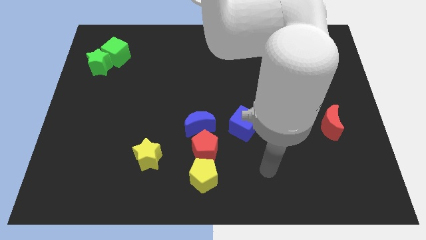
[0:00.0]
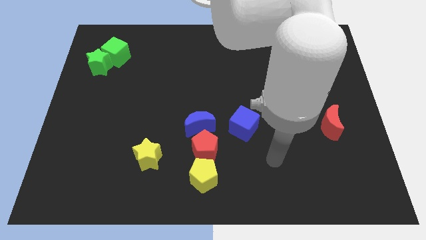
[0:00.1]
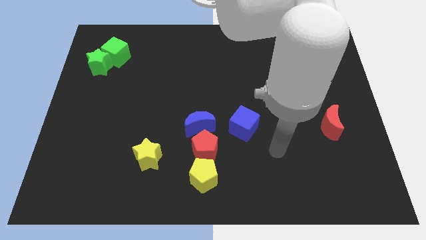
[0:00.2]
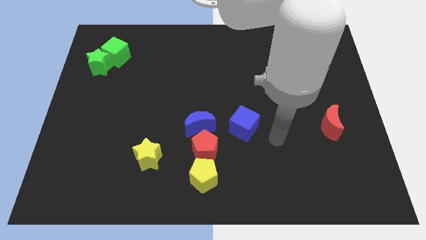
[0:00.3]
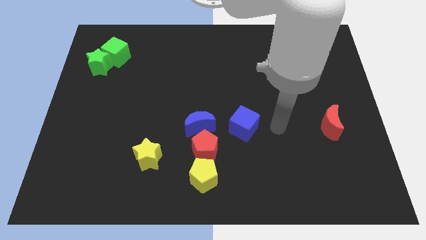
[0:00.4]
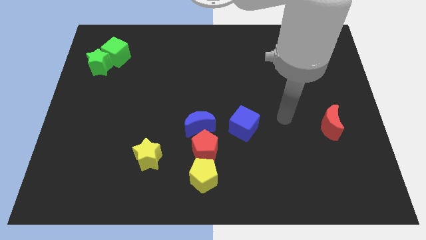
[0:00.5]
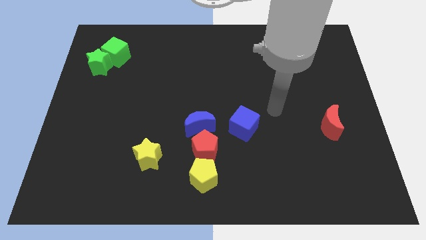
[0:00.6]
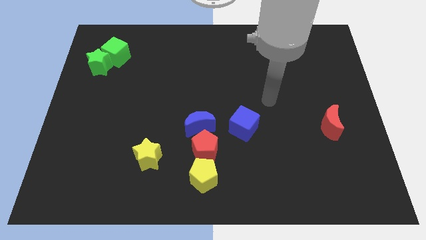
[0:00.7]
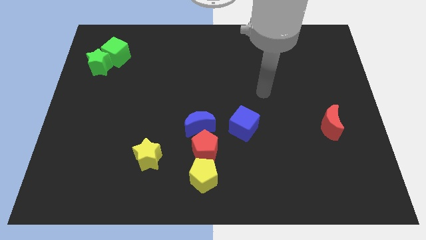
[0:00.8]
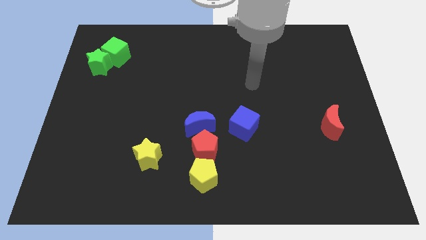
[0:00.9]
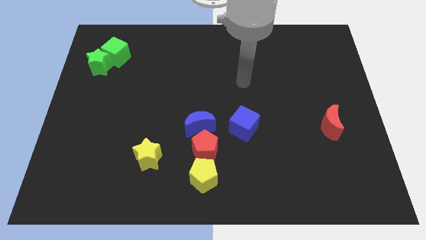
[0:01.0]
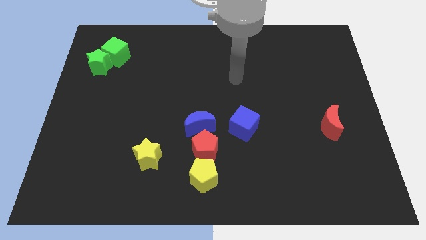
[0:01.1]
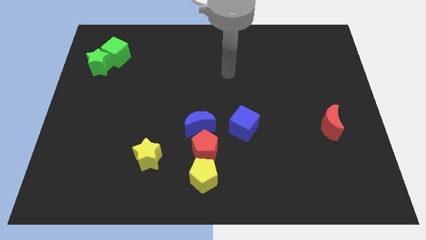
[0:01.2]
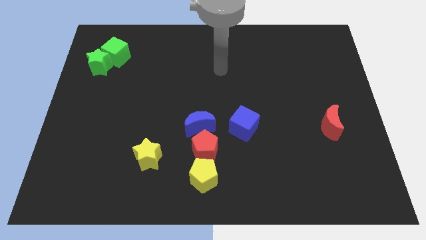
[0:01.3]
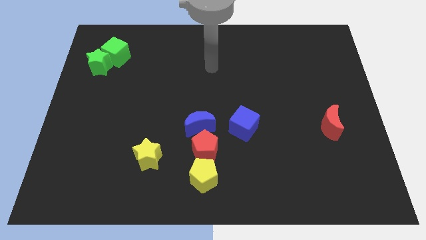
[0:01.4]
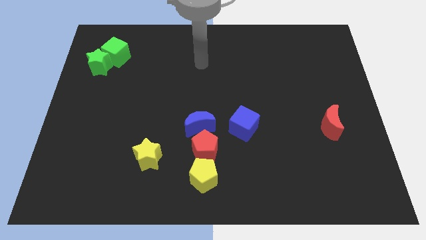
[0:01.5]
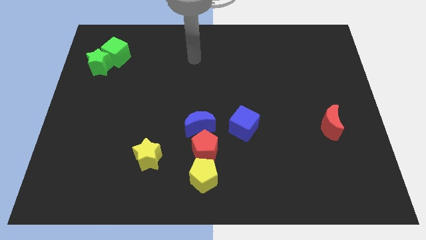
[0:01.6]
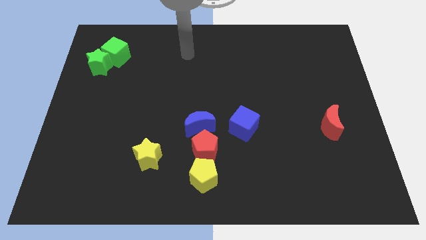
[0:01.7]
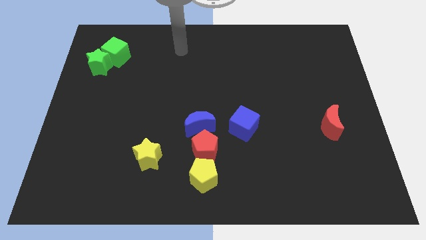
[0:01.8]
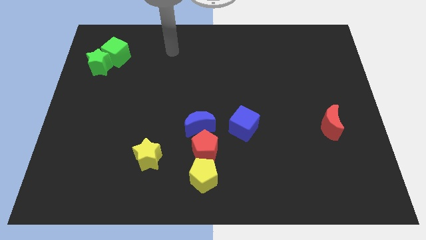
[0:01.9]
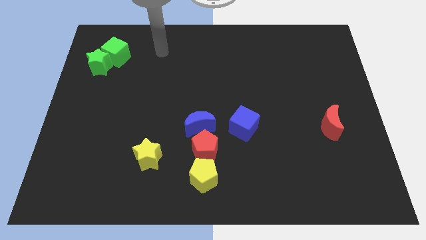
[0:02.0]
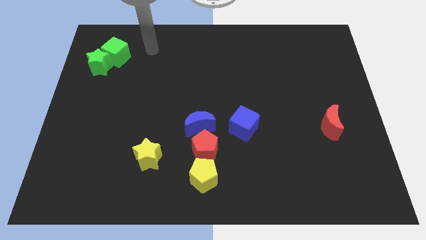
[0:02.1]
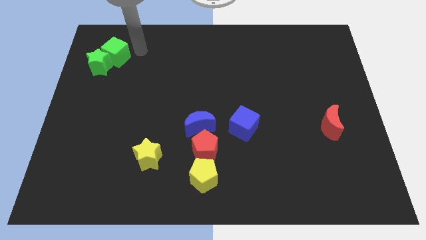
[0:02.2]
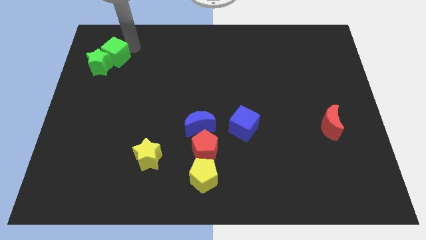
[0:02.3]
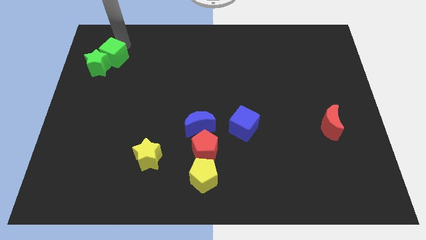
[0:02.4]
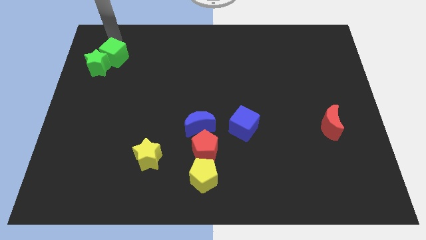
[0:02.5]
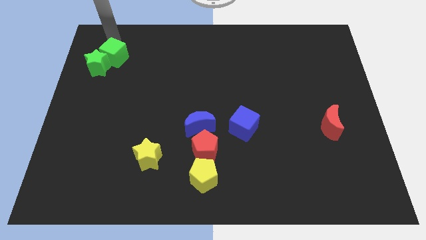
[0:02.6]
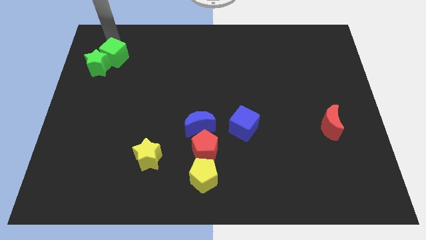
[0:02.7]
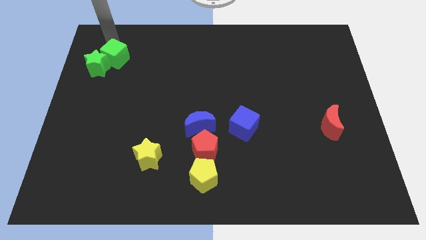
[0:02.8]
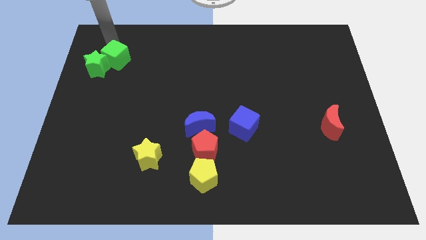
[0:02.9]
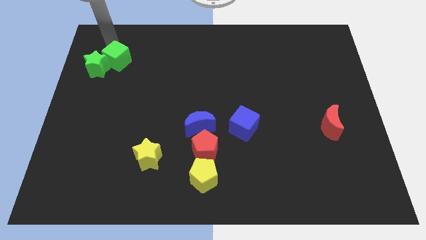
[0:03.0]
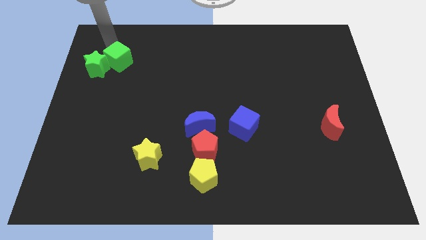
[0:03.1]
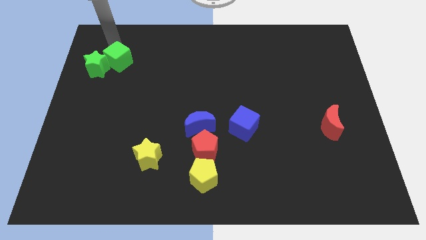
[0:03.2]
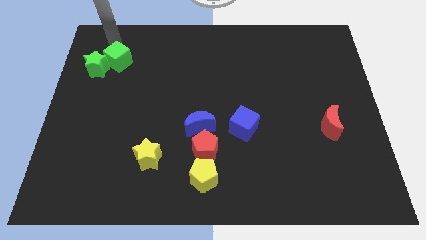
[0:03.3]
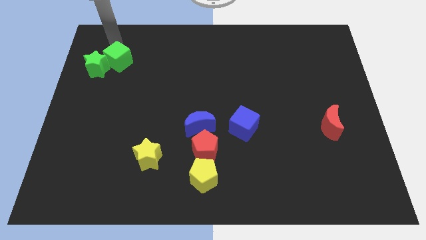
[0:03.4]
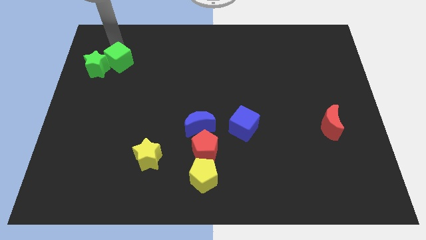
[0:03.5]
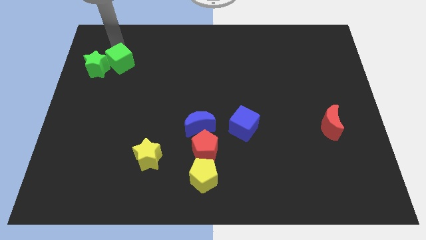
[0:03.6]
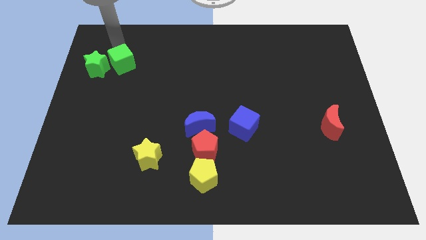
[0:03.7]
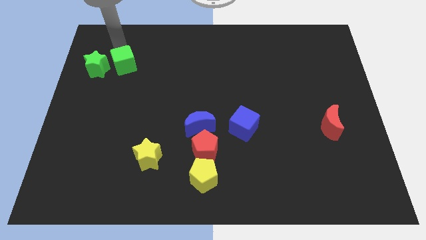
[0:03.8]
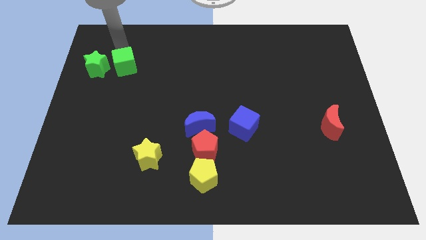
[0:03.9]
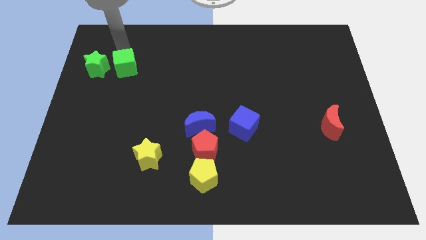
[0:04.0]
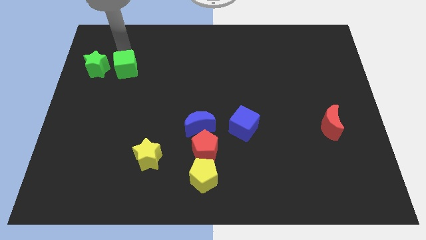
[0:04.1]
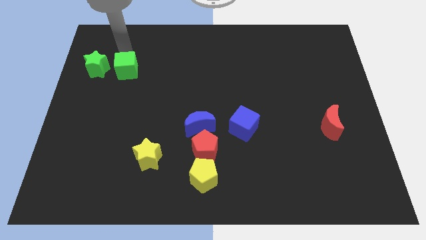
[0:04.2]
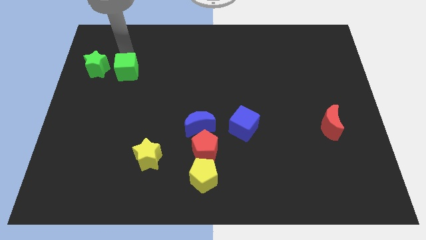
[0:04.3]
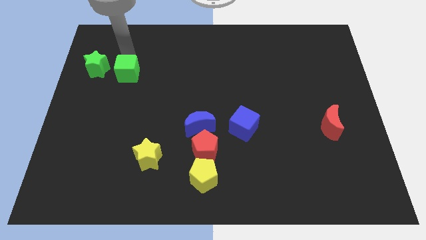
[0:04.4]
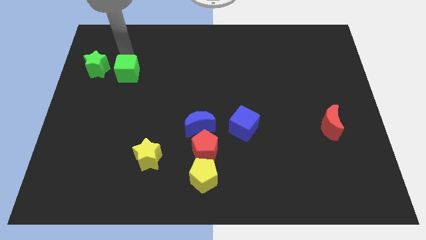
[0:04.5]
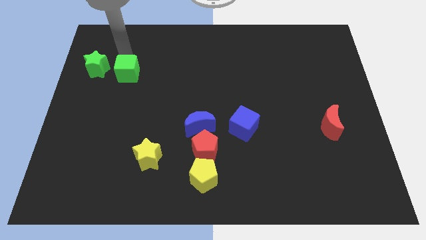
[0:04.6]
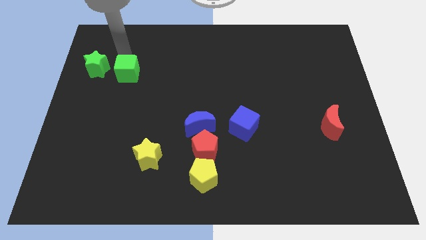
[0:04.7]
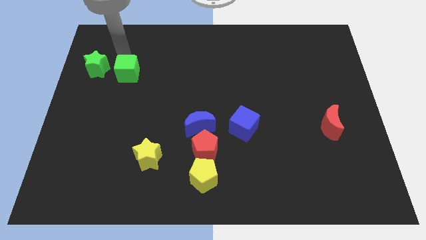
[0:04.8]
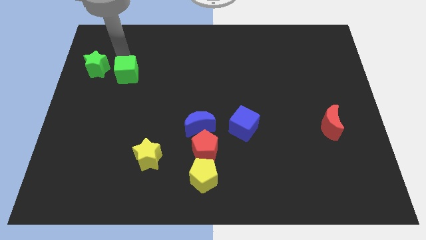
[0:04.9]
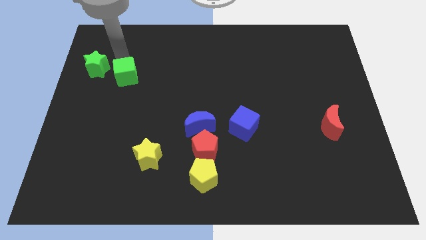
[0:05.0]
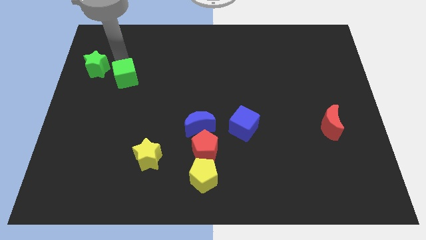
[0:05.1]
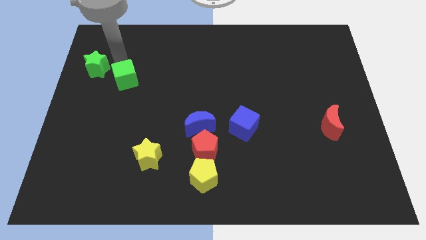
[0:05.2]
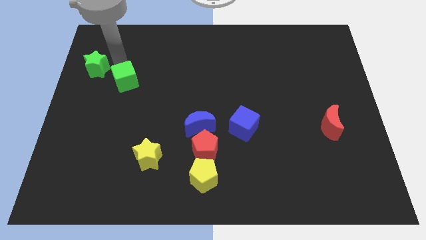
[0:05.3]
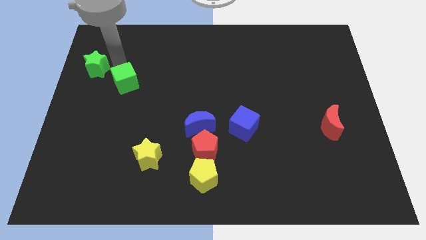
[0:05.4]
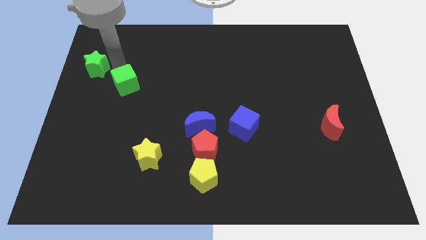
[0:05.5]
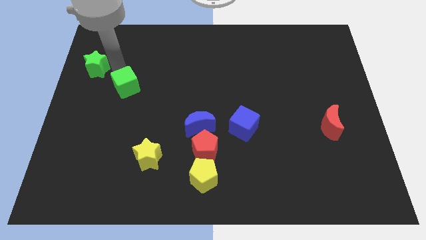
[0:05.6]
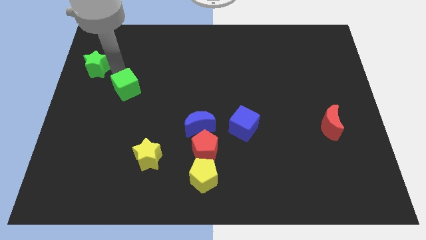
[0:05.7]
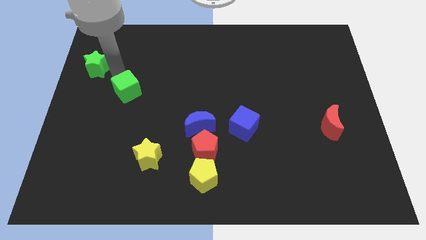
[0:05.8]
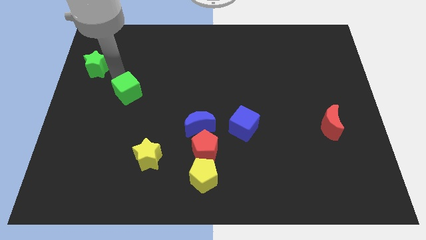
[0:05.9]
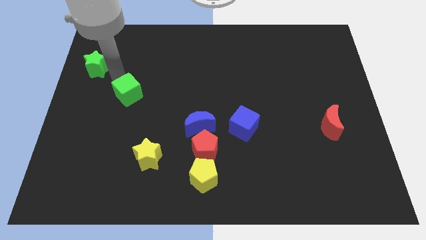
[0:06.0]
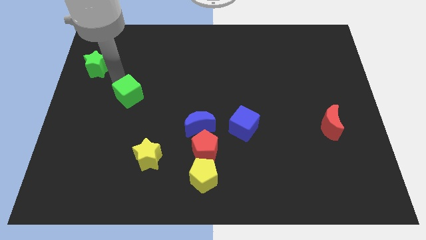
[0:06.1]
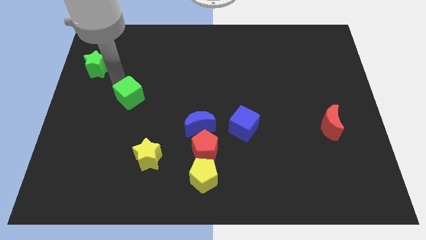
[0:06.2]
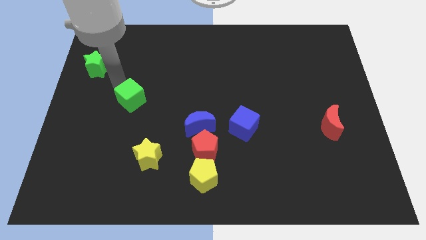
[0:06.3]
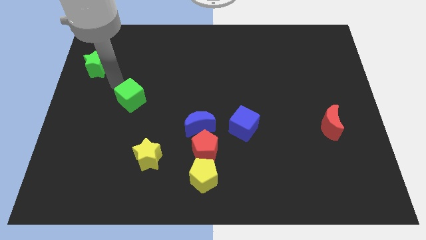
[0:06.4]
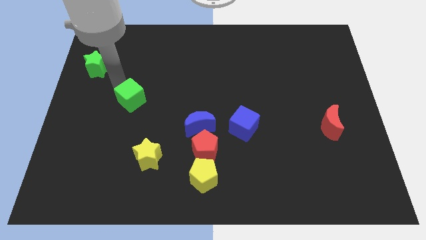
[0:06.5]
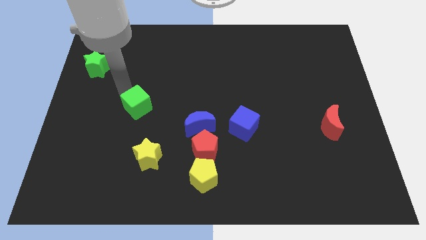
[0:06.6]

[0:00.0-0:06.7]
slide the green cube to the top of the yellow star

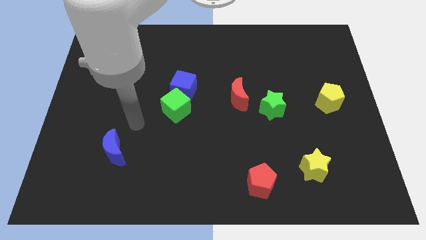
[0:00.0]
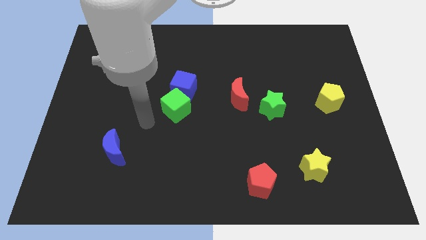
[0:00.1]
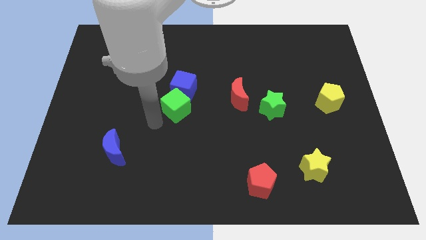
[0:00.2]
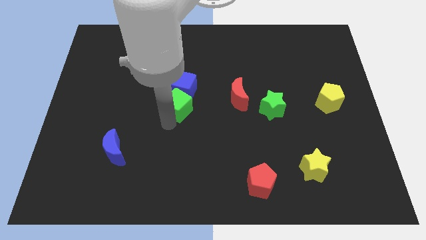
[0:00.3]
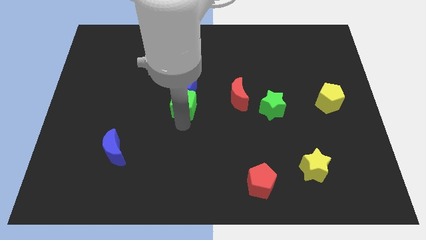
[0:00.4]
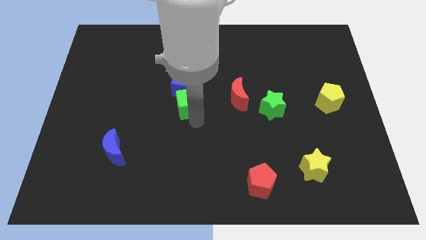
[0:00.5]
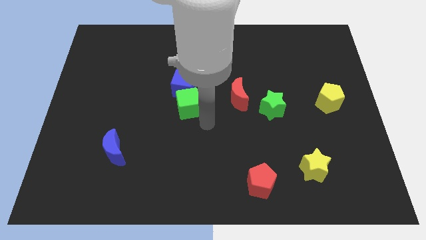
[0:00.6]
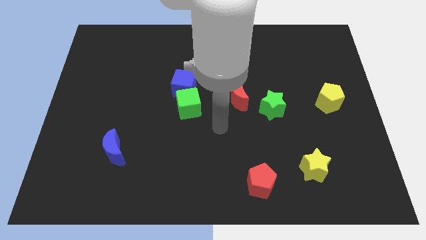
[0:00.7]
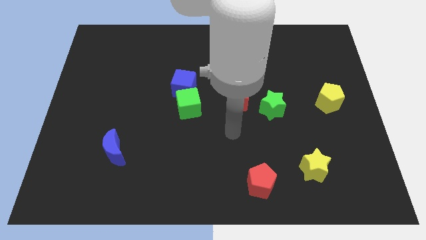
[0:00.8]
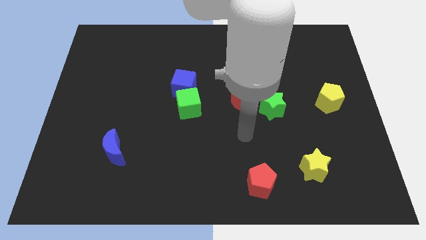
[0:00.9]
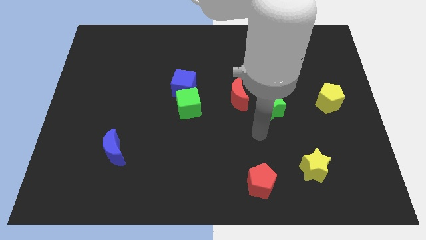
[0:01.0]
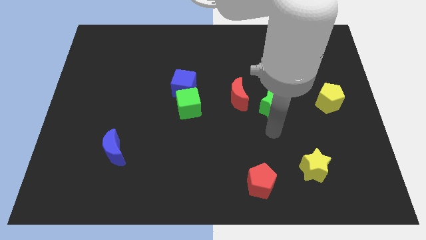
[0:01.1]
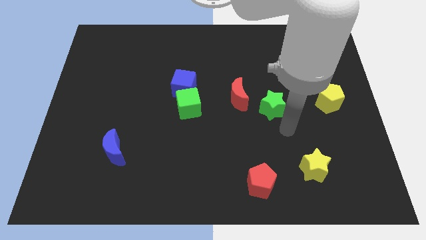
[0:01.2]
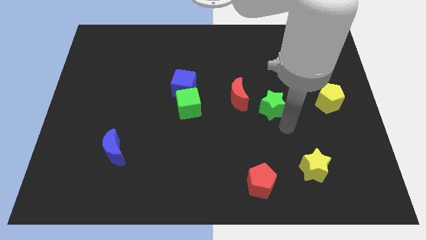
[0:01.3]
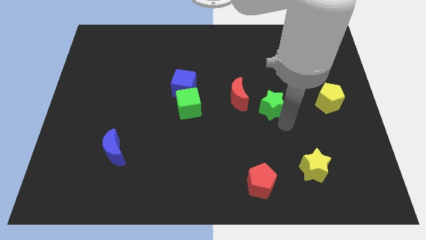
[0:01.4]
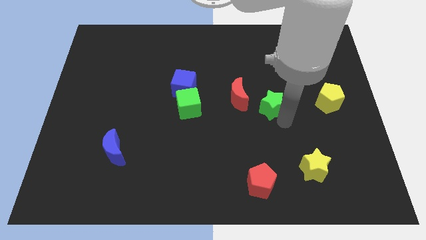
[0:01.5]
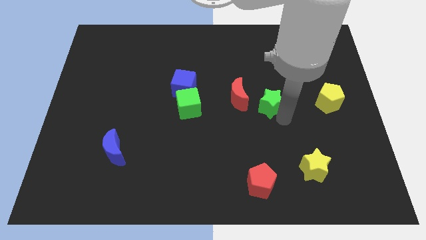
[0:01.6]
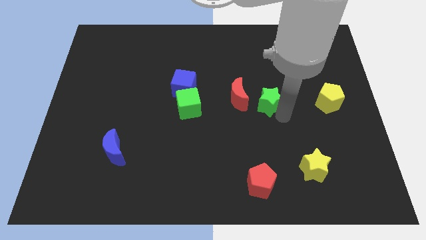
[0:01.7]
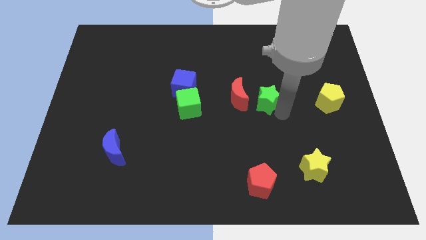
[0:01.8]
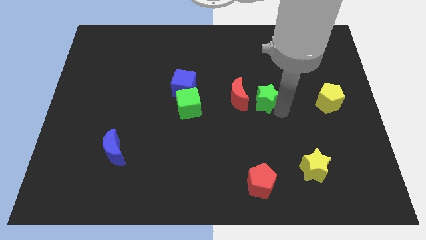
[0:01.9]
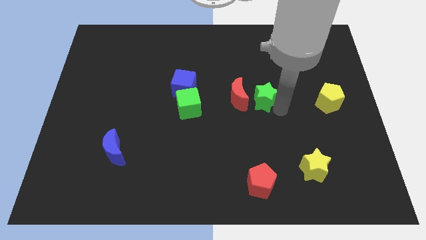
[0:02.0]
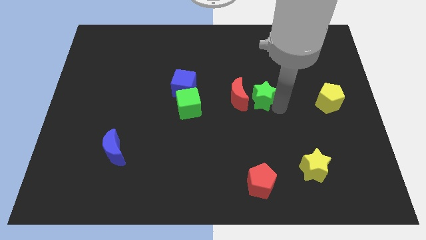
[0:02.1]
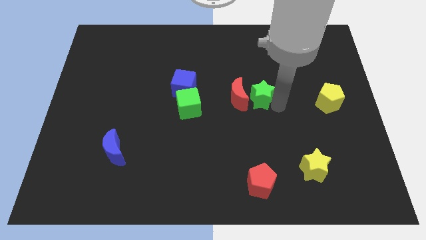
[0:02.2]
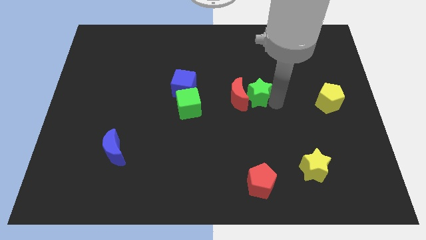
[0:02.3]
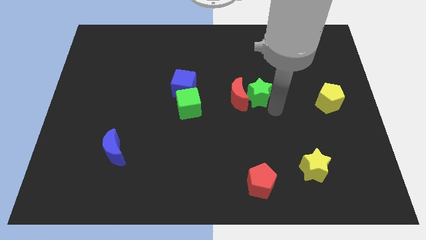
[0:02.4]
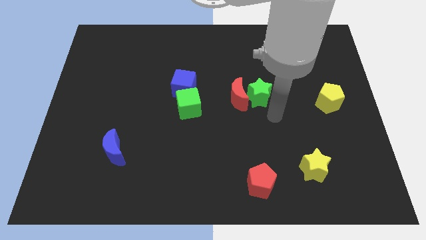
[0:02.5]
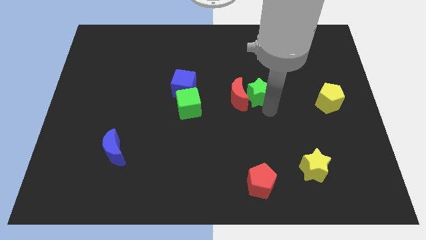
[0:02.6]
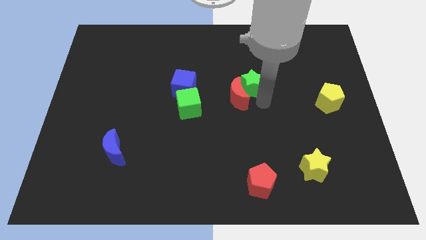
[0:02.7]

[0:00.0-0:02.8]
push the green star to the top of the red moon
